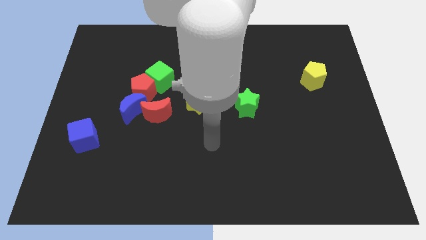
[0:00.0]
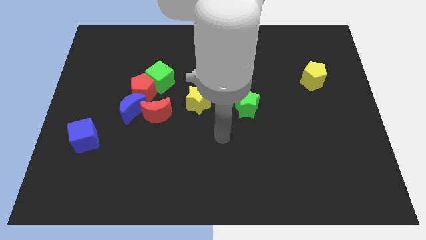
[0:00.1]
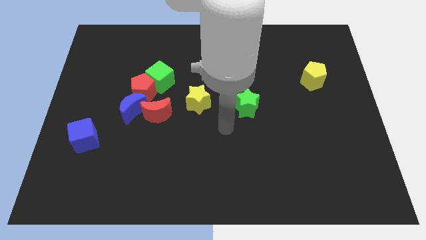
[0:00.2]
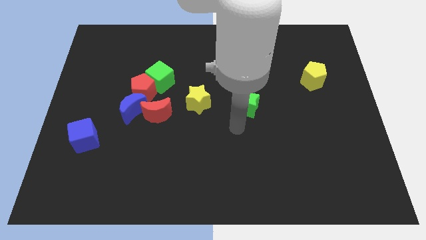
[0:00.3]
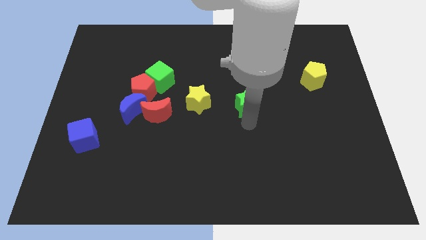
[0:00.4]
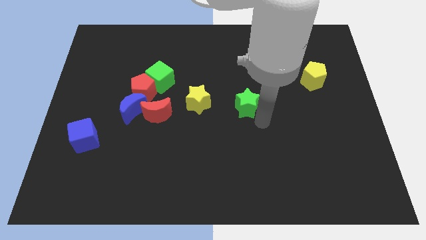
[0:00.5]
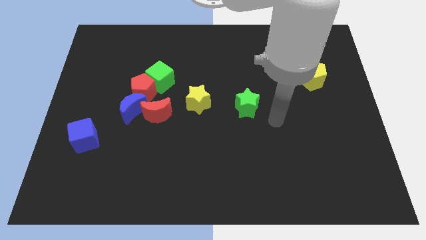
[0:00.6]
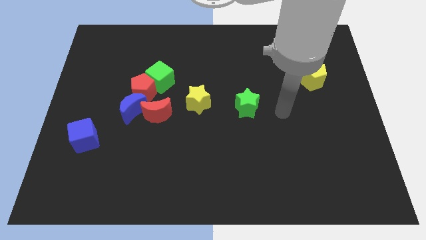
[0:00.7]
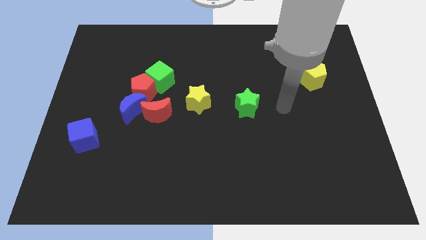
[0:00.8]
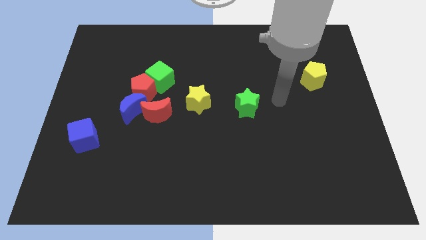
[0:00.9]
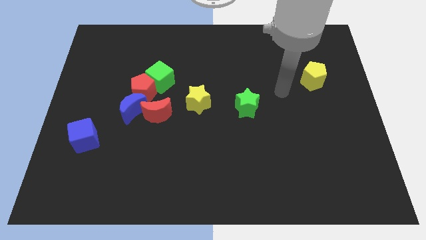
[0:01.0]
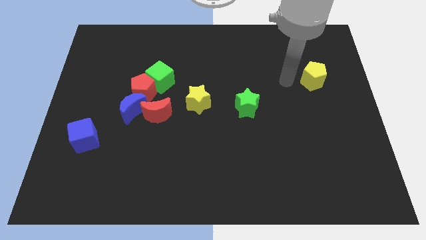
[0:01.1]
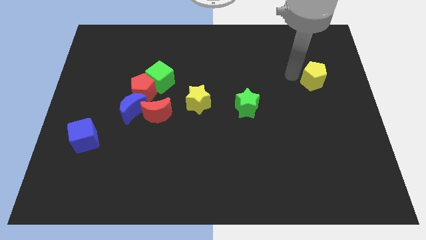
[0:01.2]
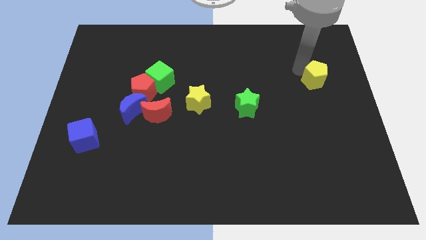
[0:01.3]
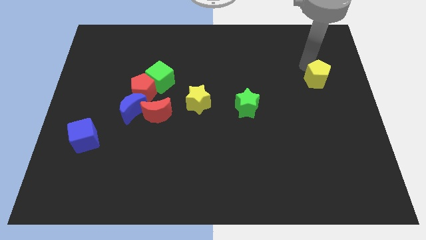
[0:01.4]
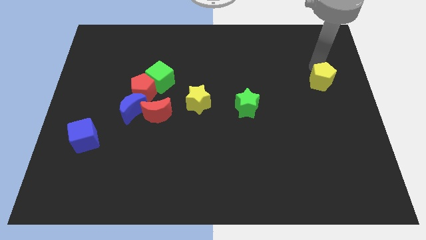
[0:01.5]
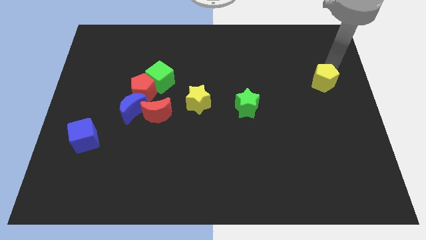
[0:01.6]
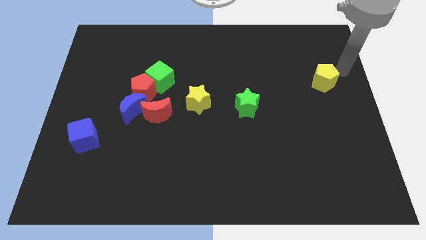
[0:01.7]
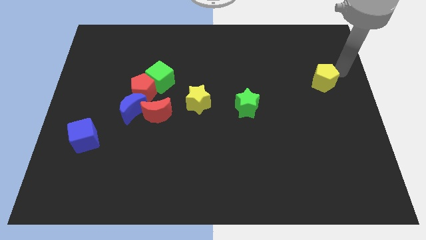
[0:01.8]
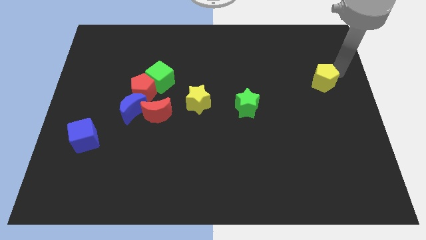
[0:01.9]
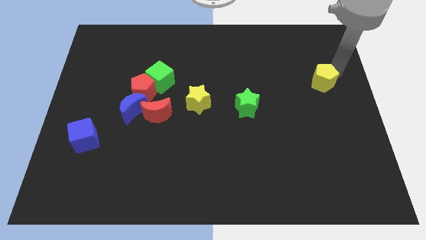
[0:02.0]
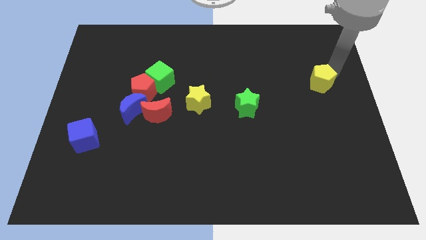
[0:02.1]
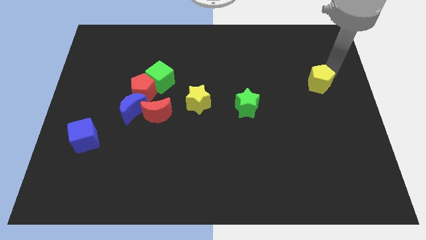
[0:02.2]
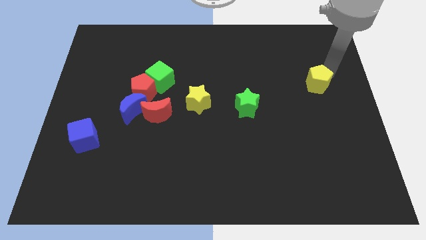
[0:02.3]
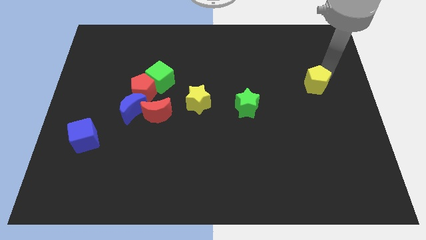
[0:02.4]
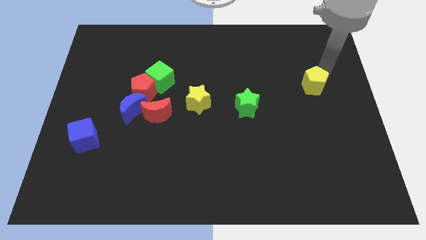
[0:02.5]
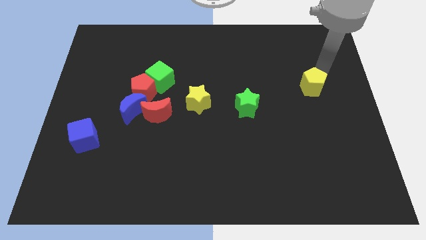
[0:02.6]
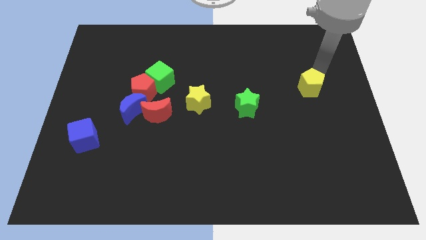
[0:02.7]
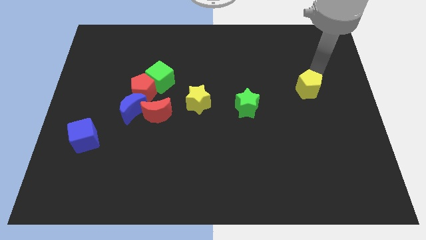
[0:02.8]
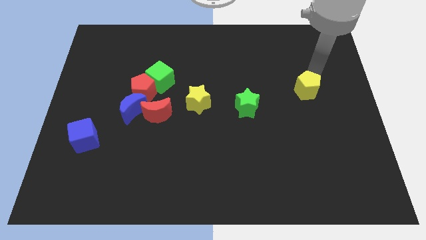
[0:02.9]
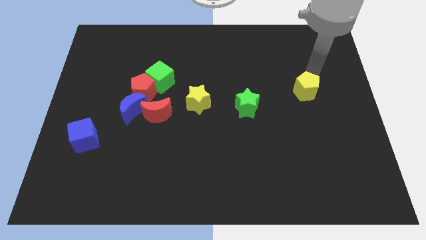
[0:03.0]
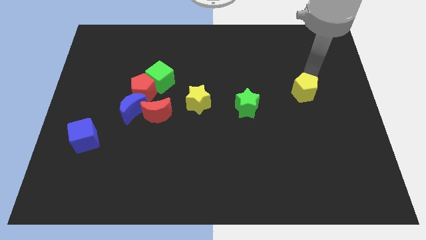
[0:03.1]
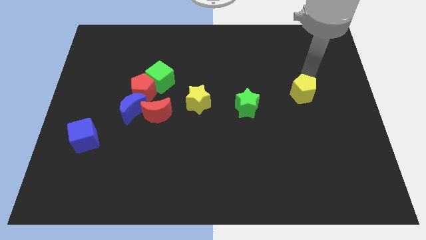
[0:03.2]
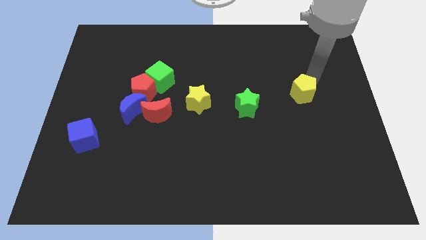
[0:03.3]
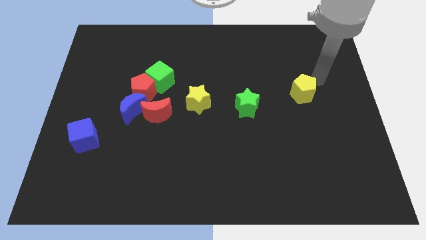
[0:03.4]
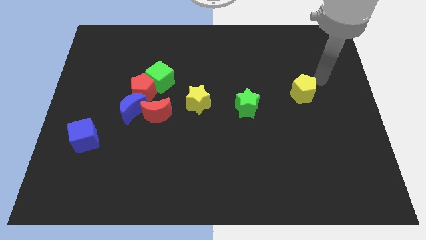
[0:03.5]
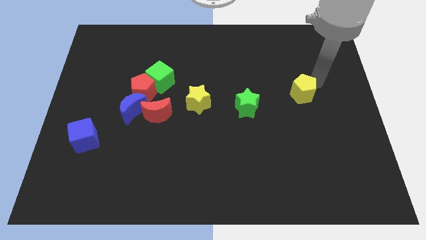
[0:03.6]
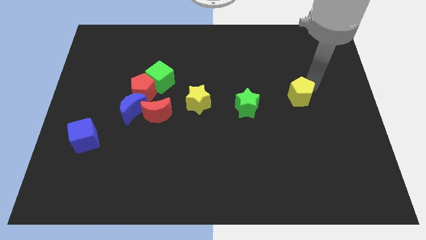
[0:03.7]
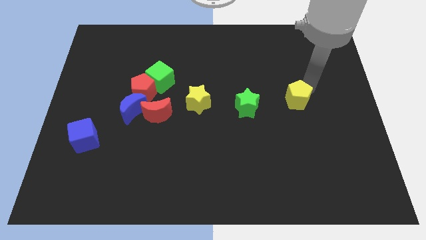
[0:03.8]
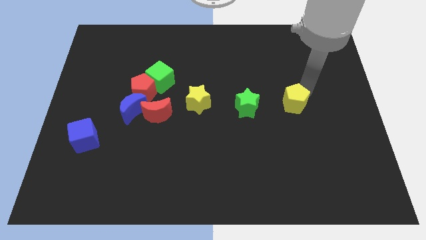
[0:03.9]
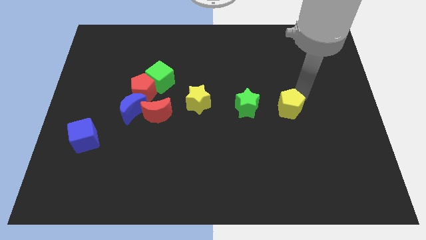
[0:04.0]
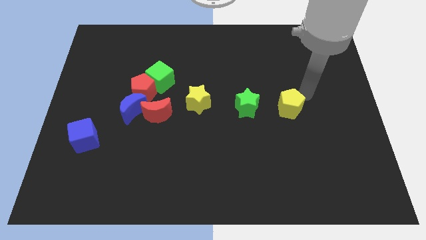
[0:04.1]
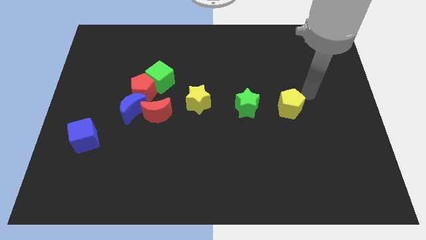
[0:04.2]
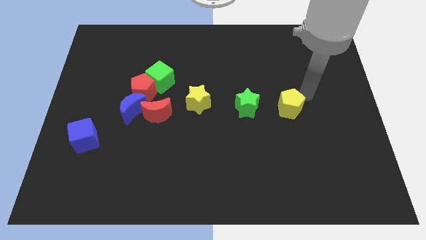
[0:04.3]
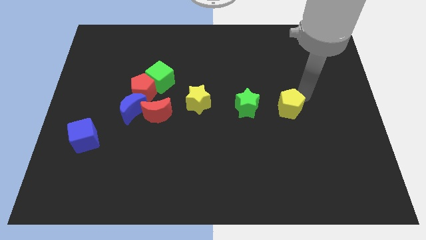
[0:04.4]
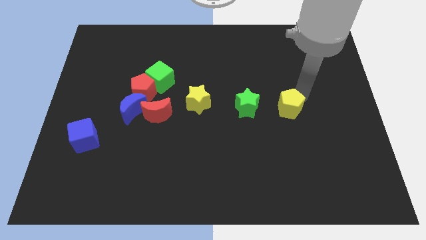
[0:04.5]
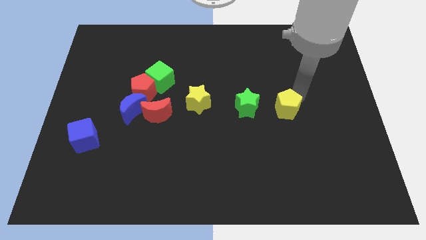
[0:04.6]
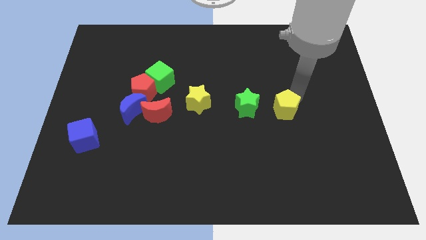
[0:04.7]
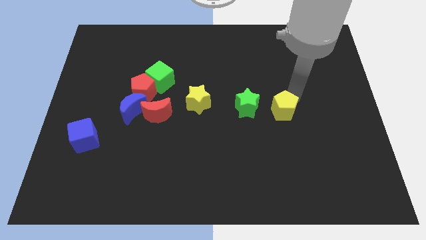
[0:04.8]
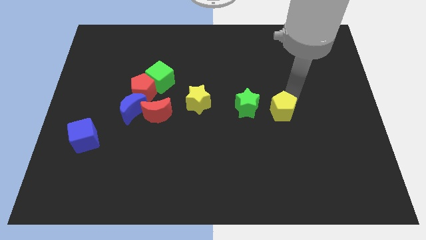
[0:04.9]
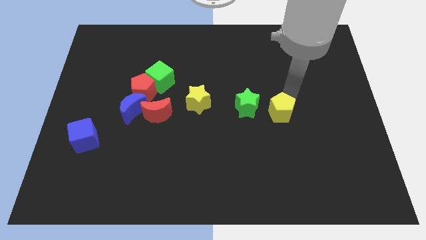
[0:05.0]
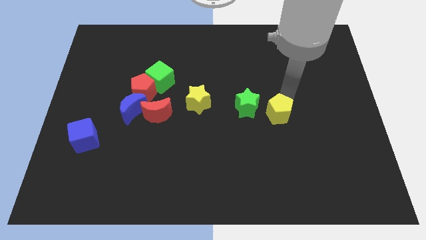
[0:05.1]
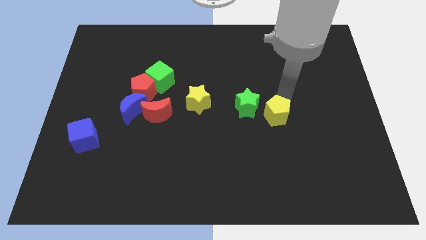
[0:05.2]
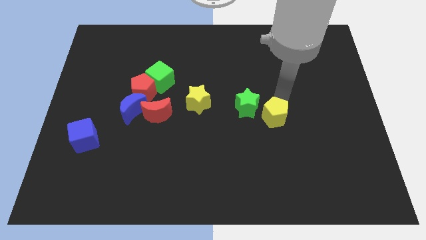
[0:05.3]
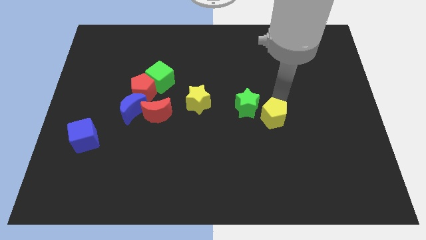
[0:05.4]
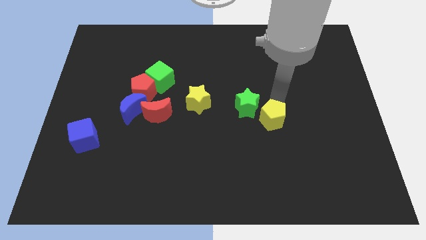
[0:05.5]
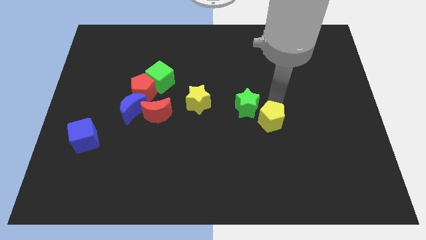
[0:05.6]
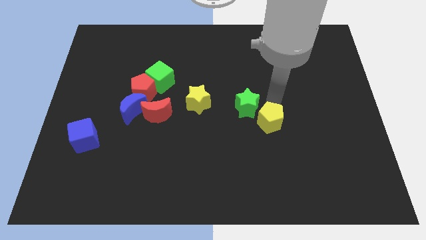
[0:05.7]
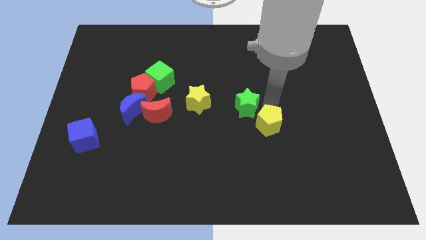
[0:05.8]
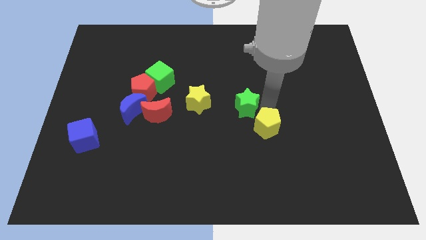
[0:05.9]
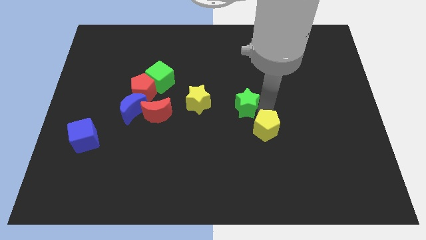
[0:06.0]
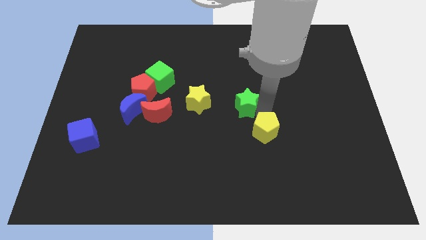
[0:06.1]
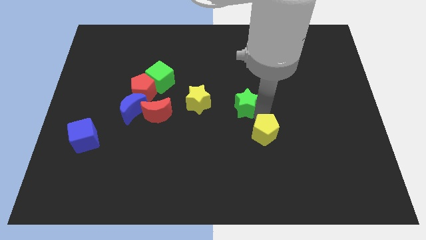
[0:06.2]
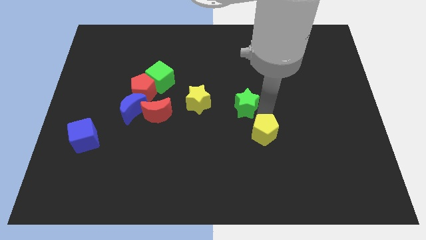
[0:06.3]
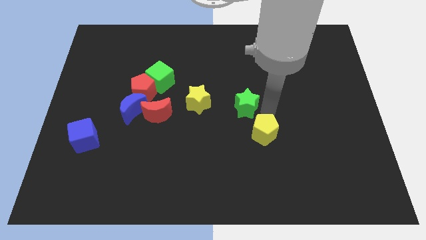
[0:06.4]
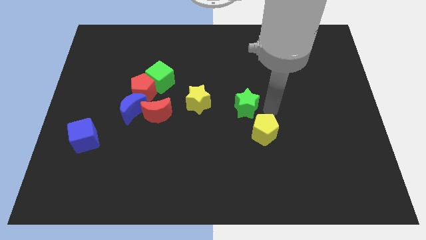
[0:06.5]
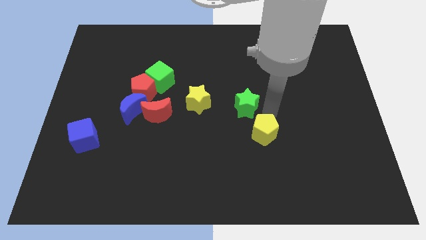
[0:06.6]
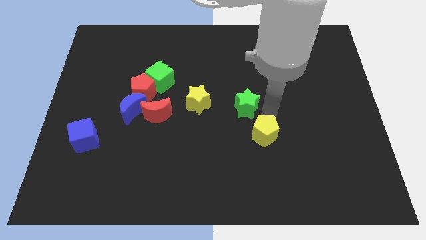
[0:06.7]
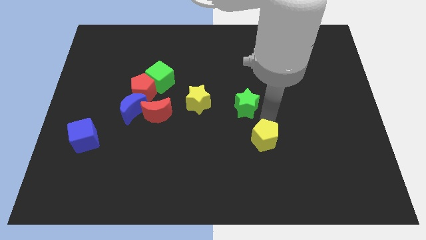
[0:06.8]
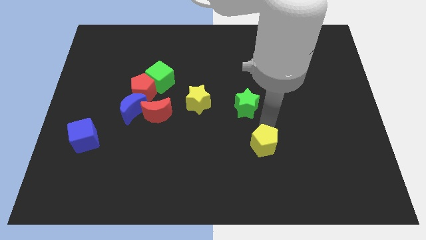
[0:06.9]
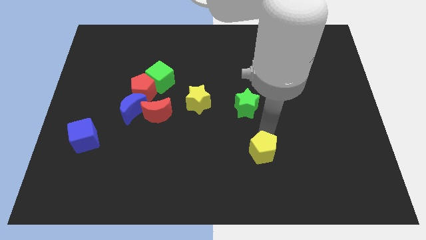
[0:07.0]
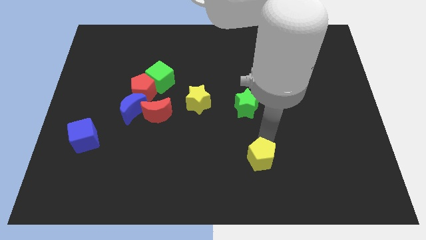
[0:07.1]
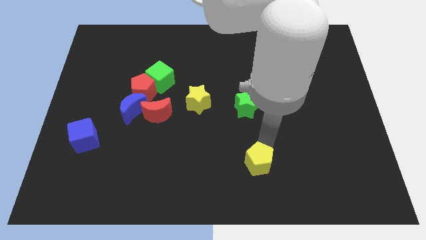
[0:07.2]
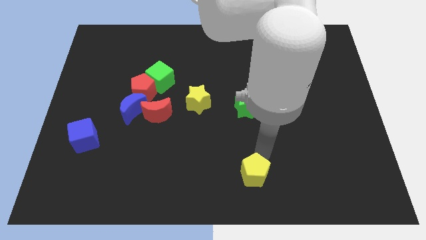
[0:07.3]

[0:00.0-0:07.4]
put the yellow pentagon to the bottom
